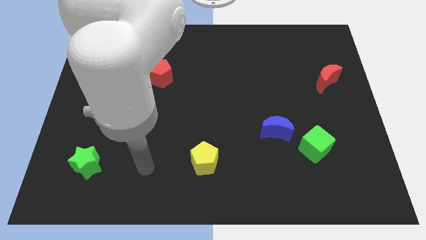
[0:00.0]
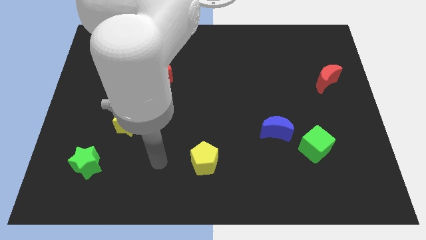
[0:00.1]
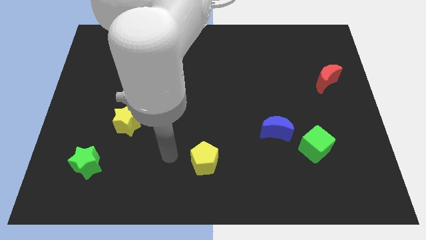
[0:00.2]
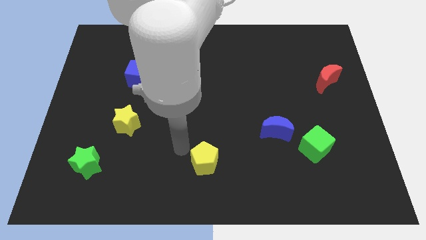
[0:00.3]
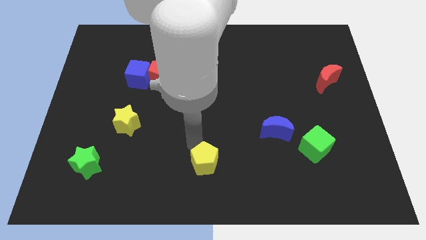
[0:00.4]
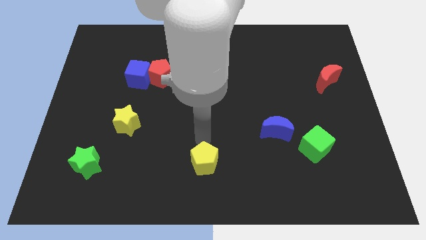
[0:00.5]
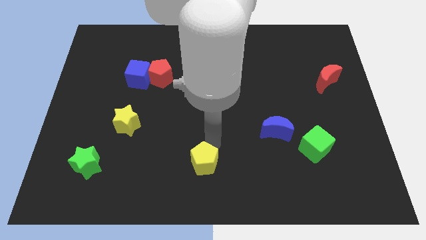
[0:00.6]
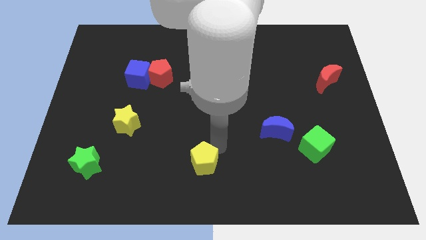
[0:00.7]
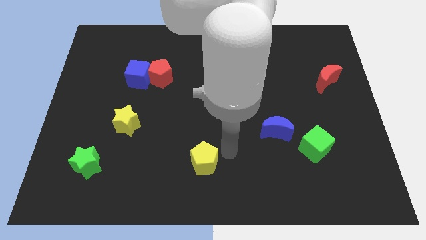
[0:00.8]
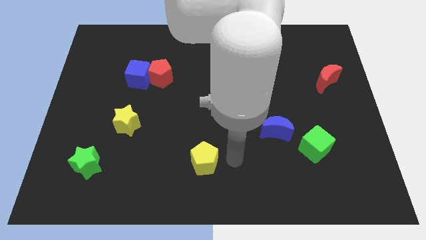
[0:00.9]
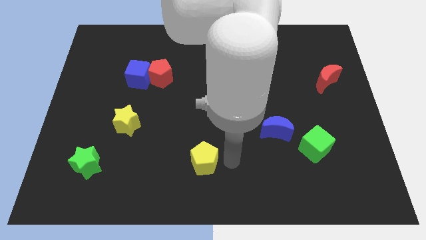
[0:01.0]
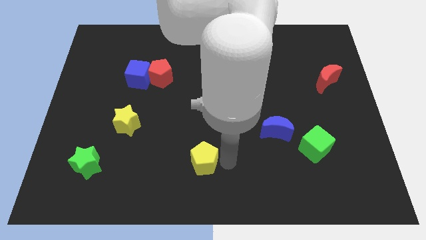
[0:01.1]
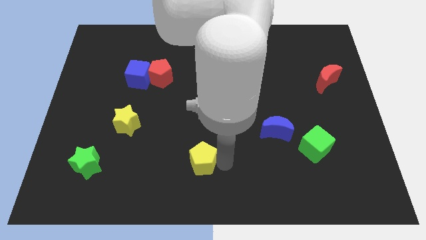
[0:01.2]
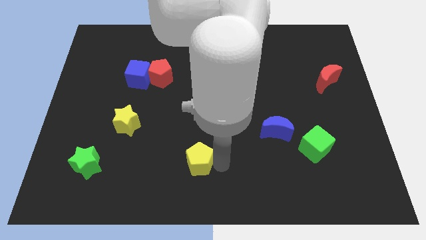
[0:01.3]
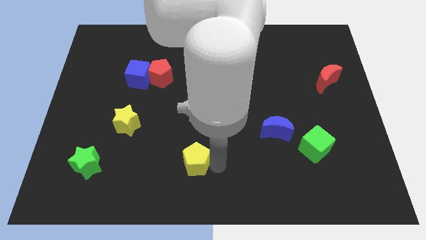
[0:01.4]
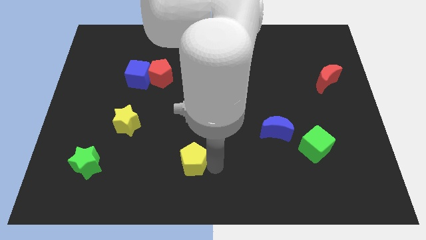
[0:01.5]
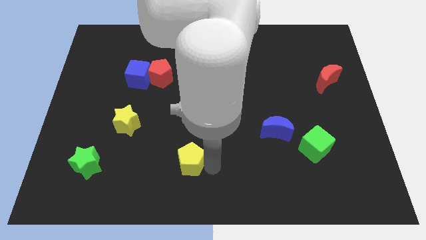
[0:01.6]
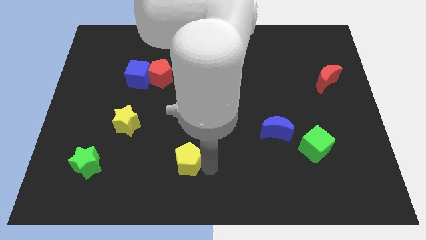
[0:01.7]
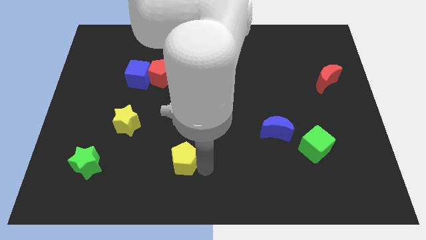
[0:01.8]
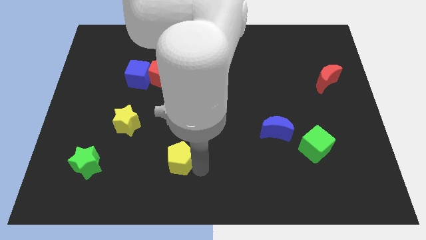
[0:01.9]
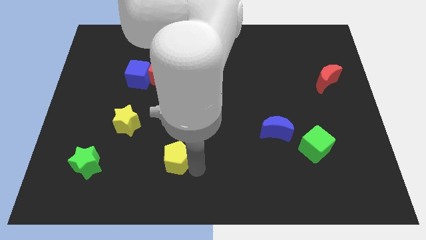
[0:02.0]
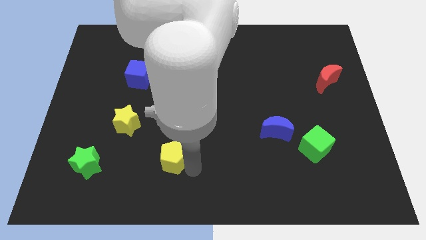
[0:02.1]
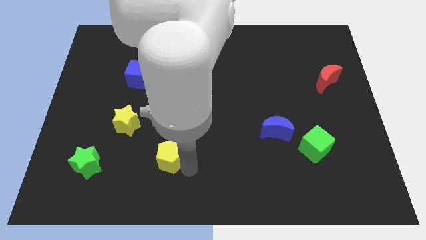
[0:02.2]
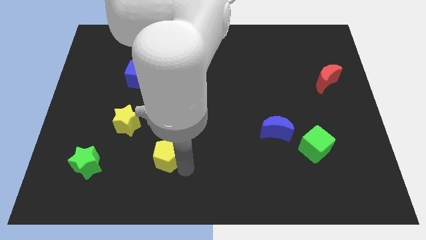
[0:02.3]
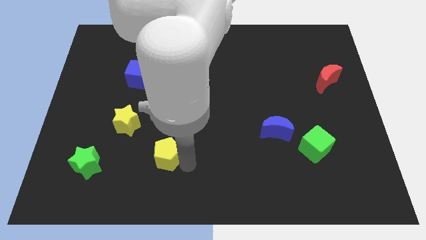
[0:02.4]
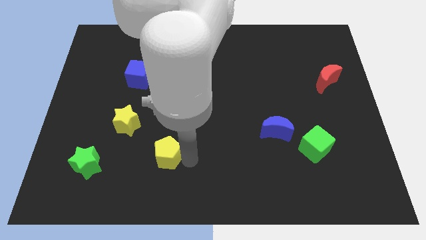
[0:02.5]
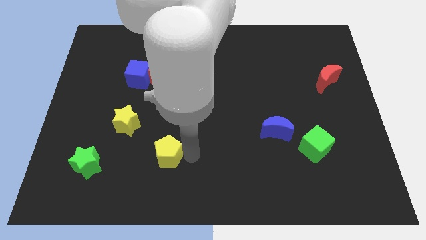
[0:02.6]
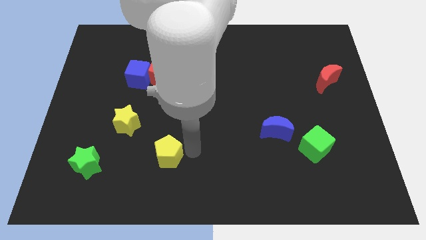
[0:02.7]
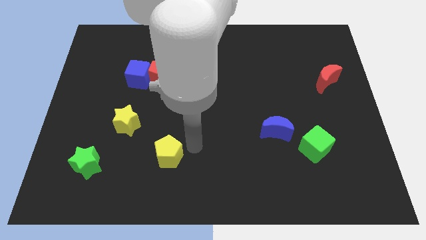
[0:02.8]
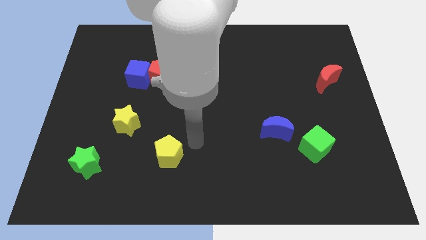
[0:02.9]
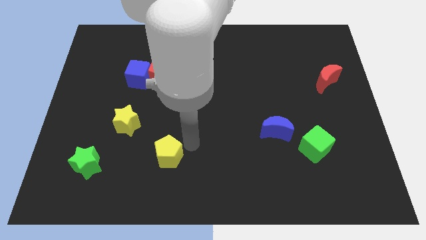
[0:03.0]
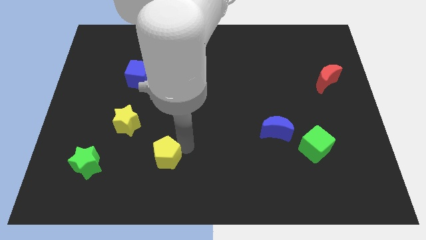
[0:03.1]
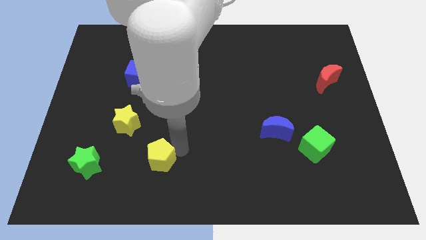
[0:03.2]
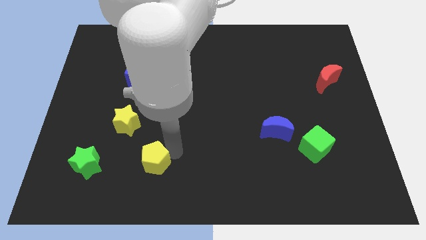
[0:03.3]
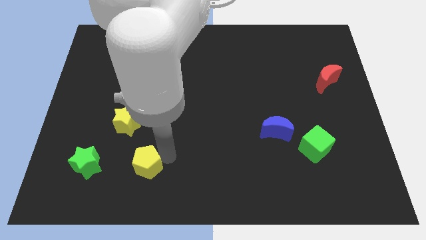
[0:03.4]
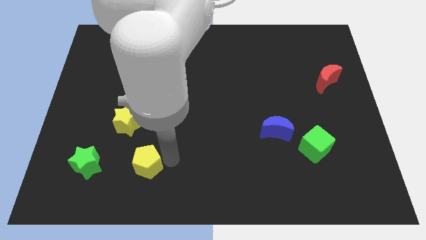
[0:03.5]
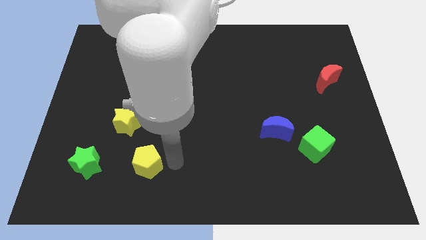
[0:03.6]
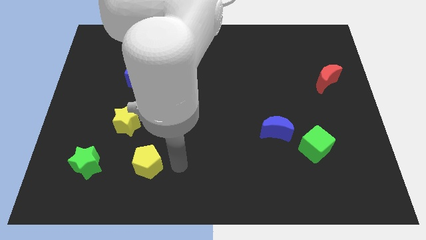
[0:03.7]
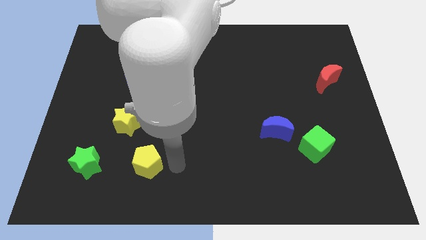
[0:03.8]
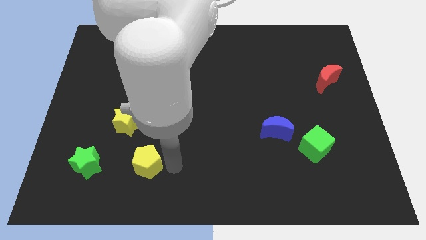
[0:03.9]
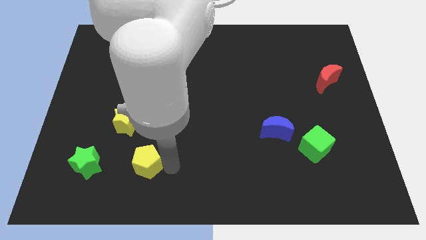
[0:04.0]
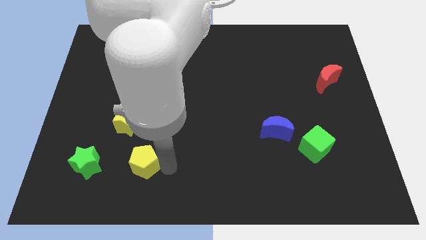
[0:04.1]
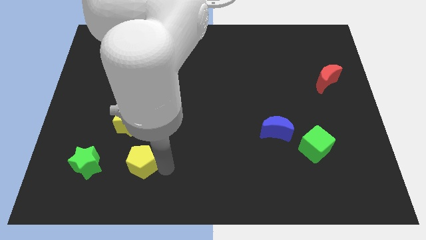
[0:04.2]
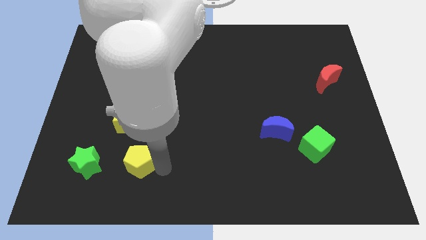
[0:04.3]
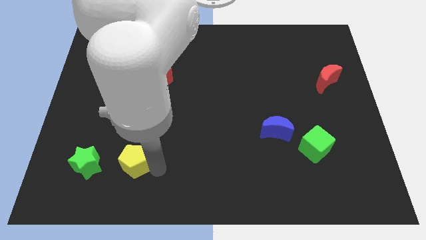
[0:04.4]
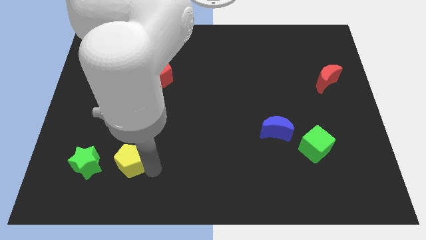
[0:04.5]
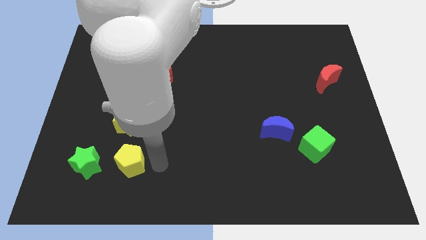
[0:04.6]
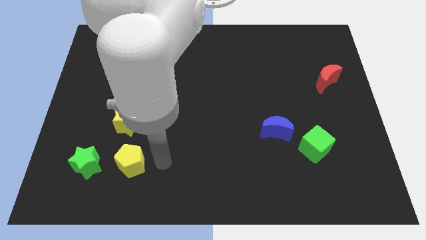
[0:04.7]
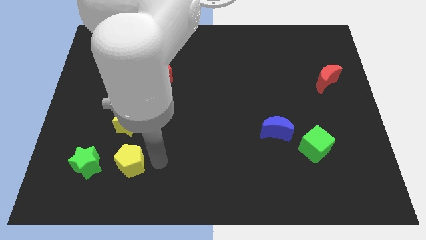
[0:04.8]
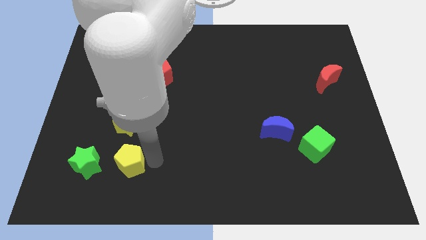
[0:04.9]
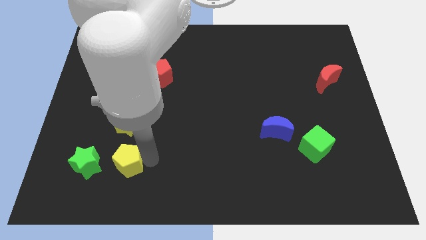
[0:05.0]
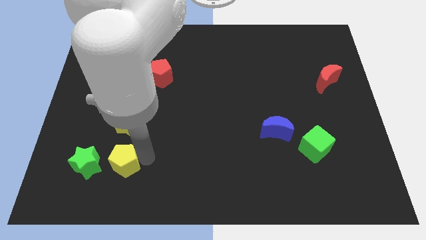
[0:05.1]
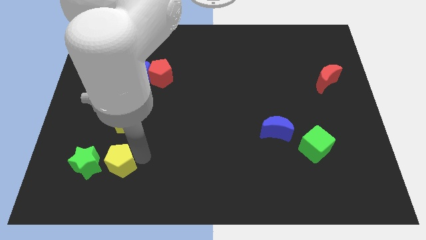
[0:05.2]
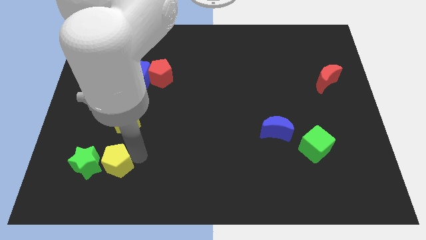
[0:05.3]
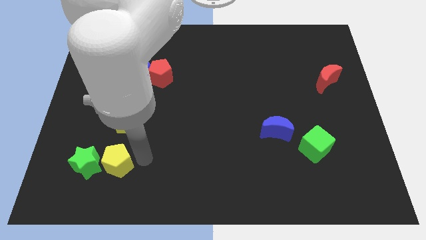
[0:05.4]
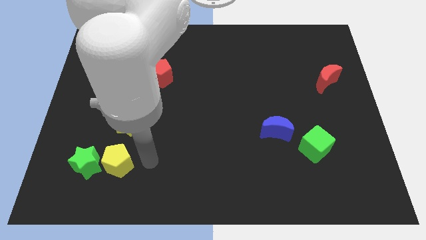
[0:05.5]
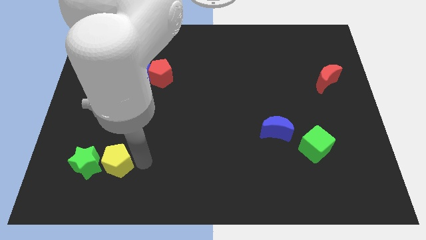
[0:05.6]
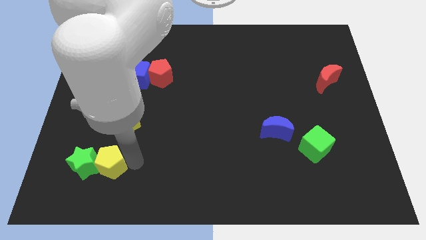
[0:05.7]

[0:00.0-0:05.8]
move the yellow pentagon next to the green star

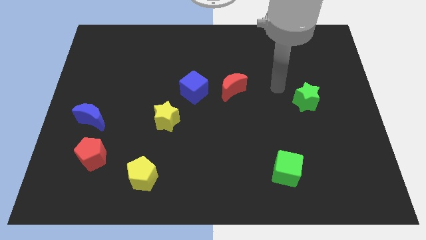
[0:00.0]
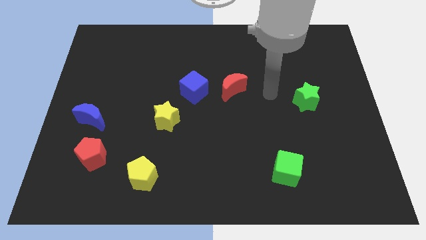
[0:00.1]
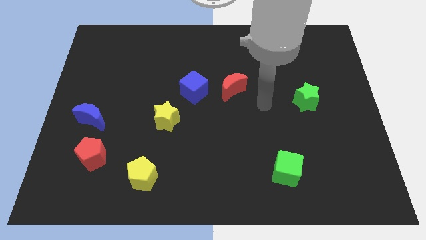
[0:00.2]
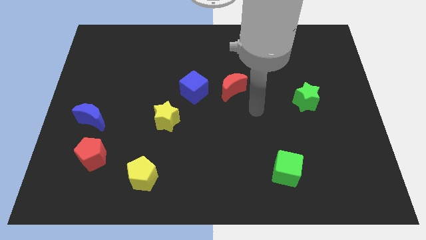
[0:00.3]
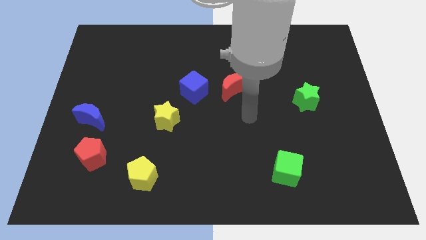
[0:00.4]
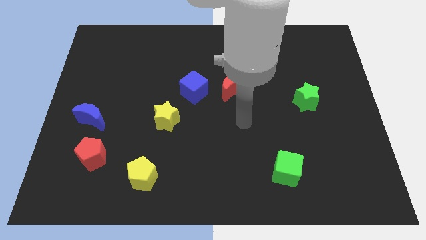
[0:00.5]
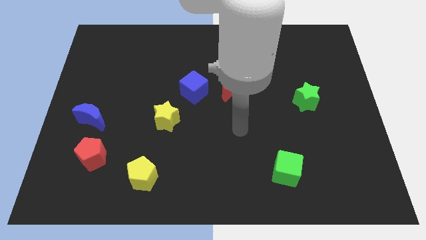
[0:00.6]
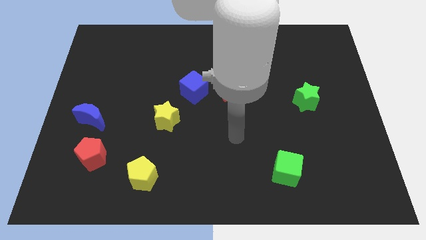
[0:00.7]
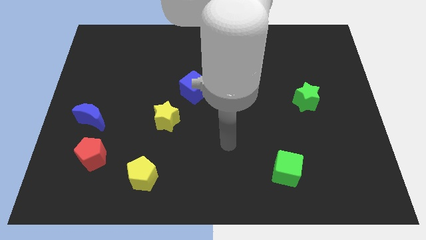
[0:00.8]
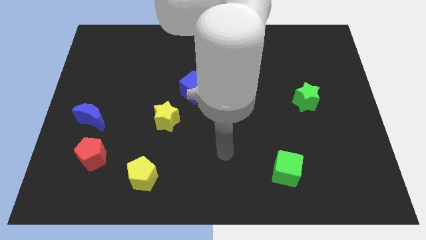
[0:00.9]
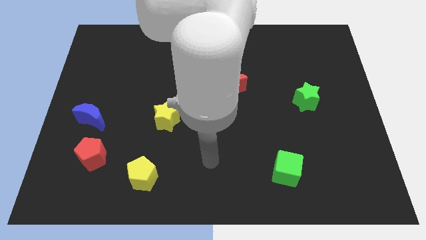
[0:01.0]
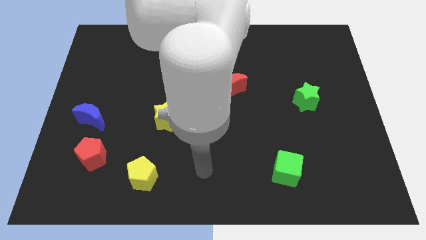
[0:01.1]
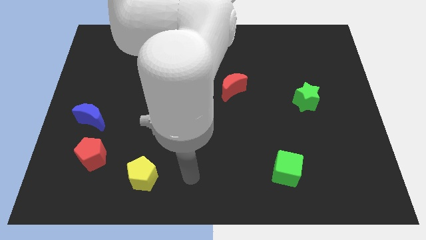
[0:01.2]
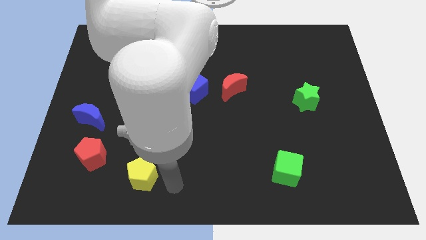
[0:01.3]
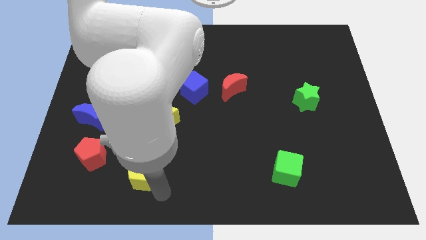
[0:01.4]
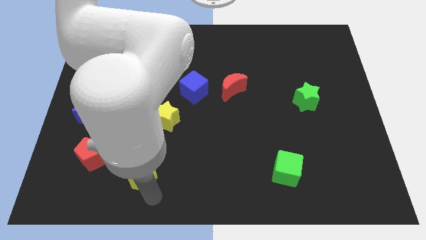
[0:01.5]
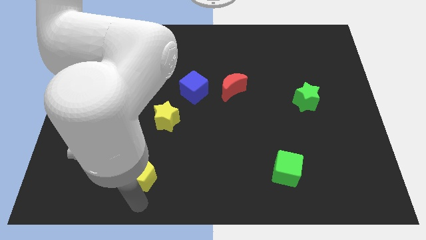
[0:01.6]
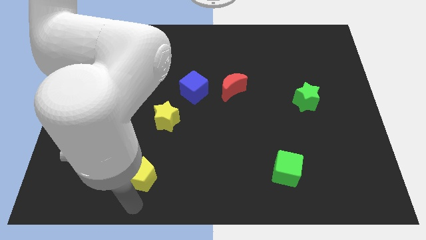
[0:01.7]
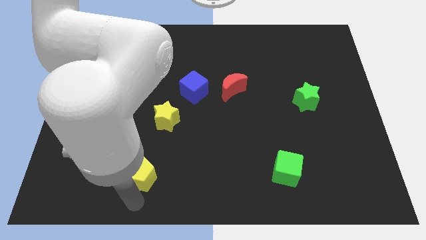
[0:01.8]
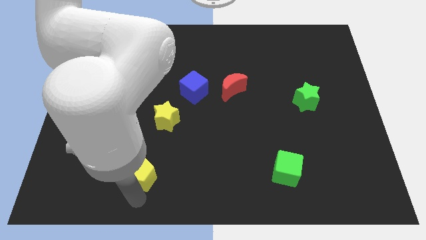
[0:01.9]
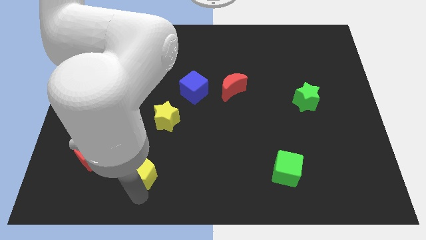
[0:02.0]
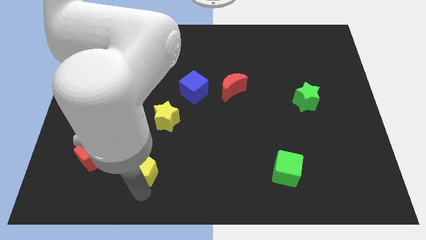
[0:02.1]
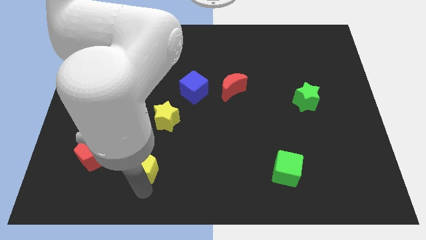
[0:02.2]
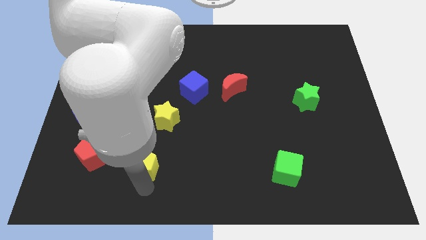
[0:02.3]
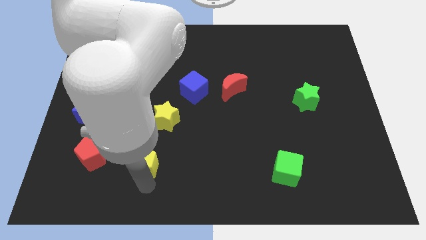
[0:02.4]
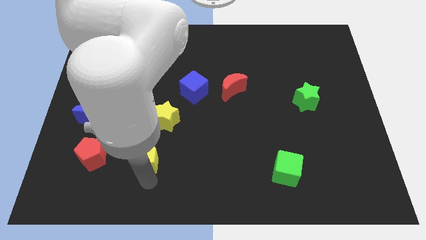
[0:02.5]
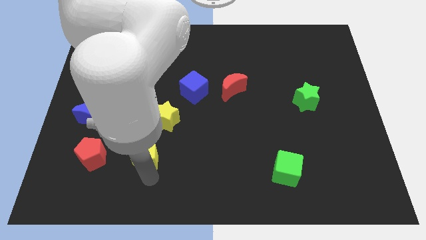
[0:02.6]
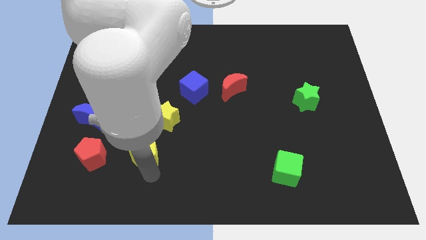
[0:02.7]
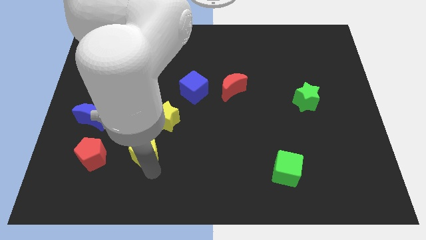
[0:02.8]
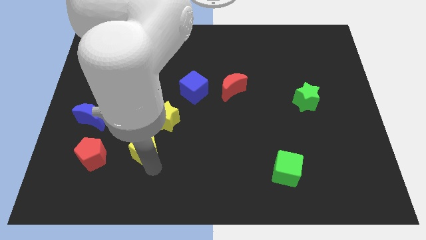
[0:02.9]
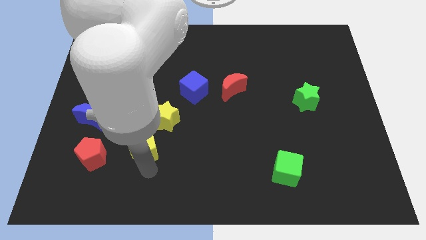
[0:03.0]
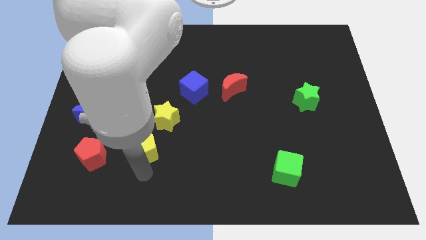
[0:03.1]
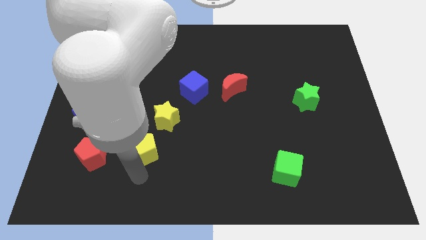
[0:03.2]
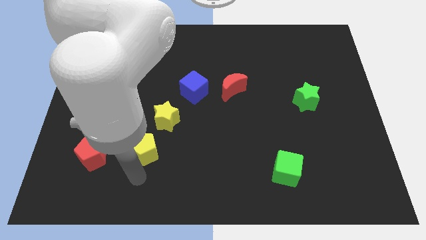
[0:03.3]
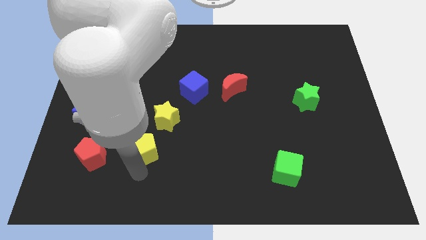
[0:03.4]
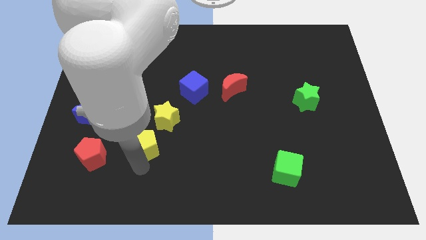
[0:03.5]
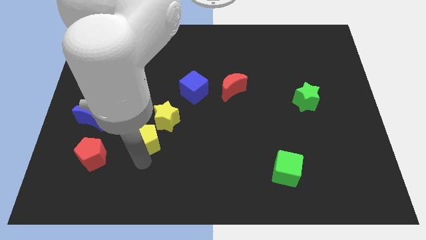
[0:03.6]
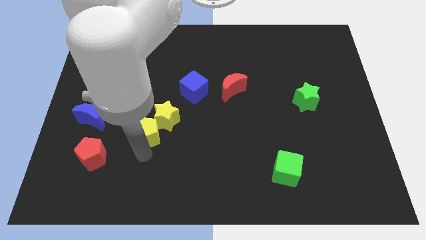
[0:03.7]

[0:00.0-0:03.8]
slide the yellow pentagon next to the yellow star
